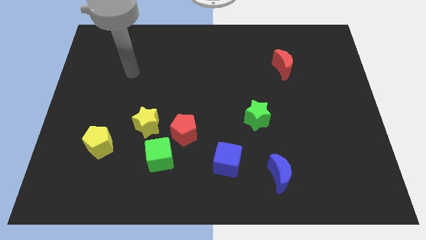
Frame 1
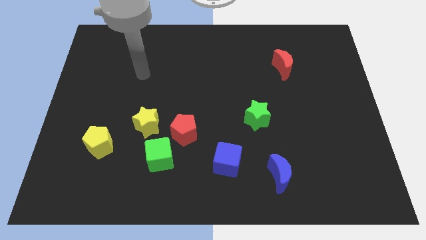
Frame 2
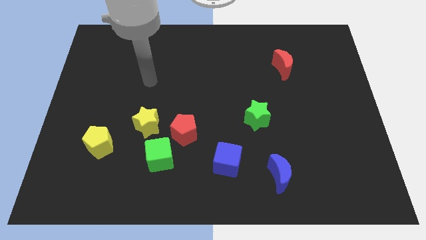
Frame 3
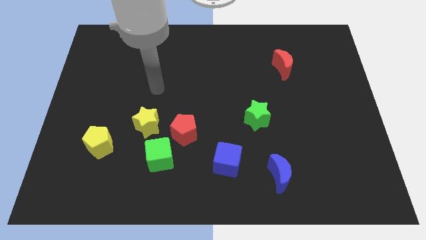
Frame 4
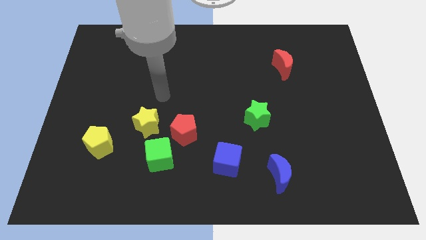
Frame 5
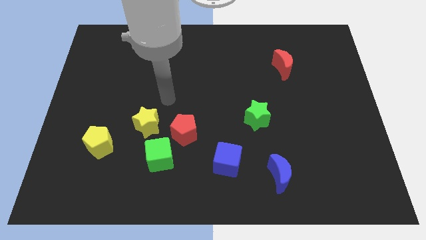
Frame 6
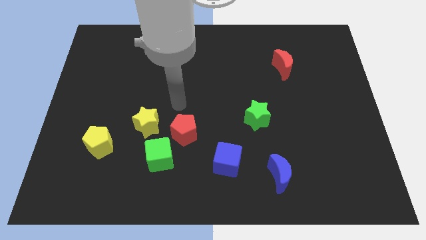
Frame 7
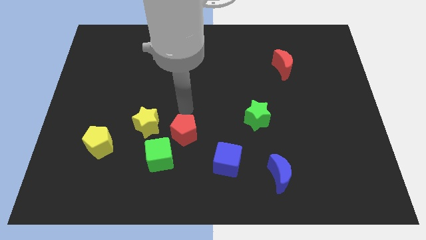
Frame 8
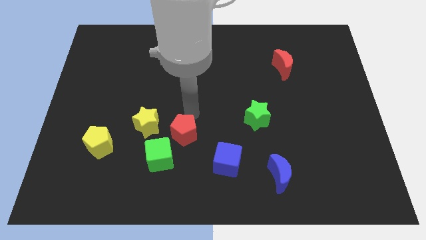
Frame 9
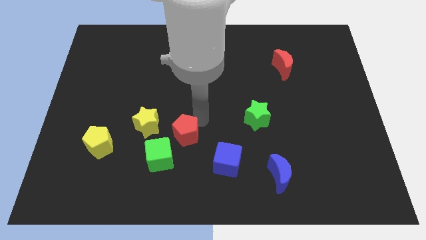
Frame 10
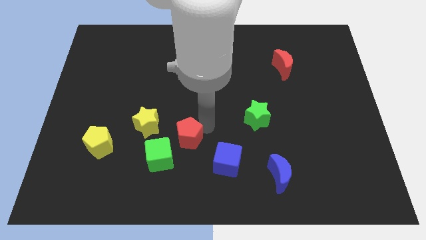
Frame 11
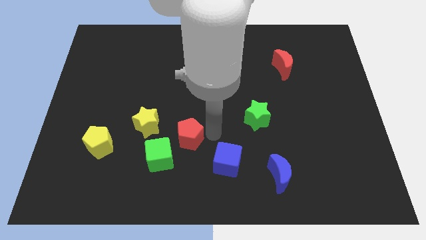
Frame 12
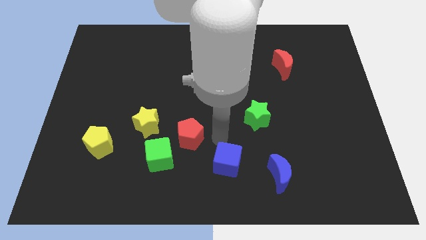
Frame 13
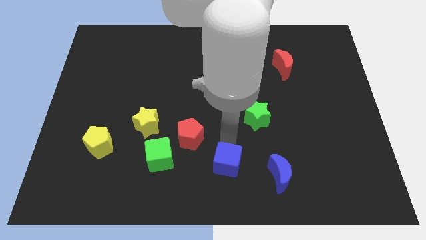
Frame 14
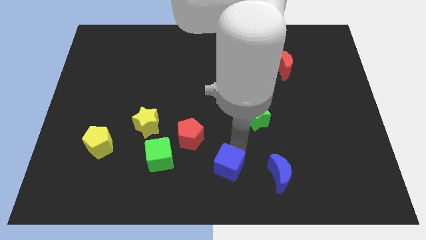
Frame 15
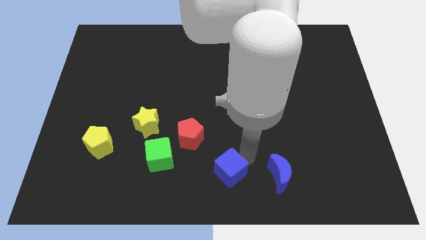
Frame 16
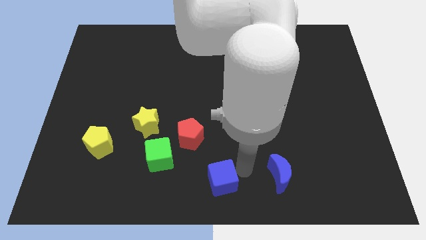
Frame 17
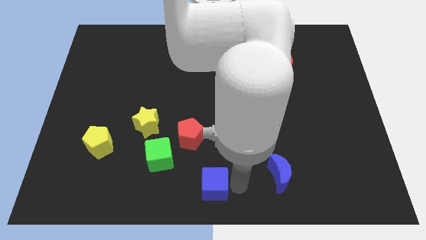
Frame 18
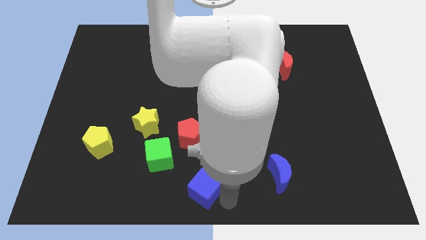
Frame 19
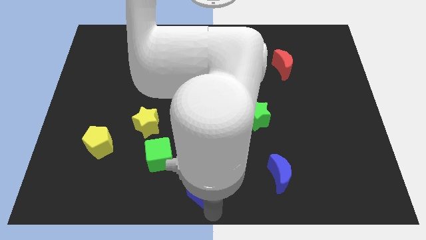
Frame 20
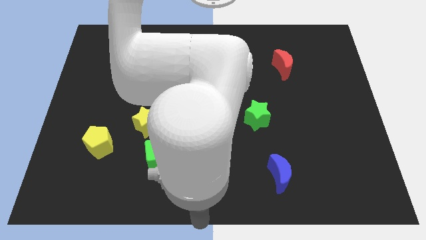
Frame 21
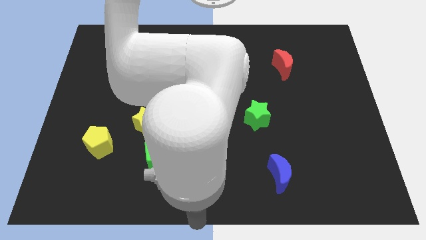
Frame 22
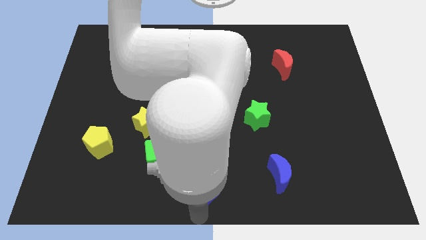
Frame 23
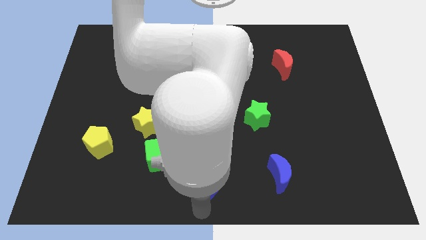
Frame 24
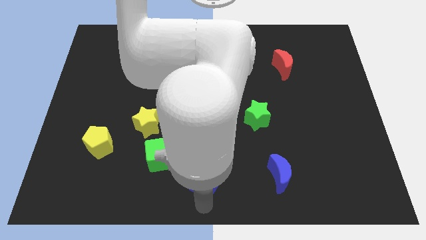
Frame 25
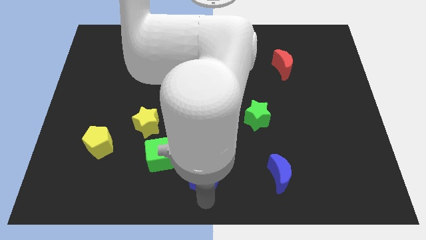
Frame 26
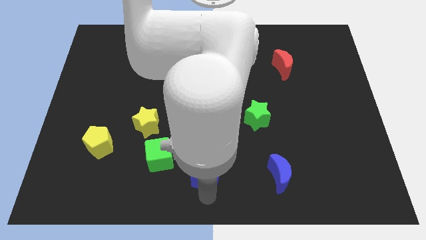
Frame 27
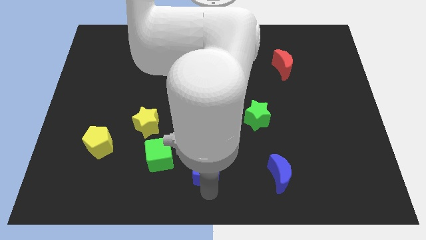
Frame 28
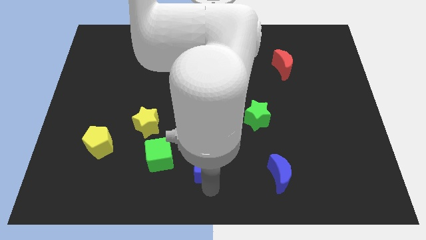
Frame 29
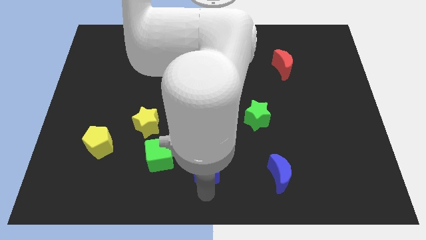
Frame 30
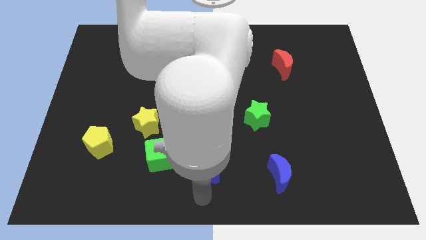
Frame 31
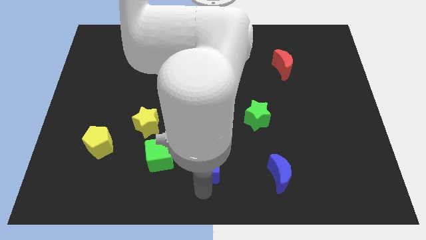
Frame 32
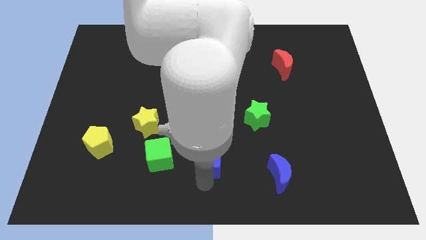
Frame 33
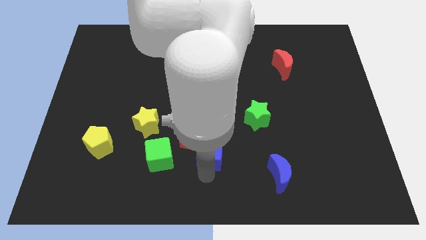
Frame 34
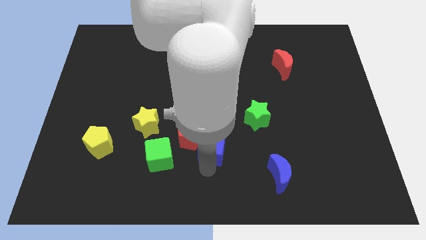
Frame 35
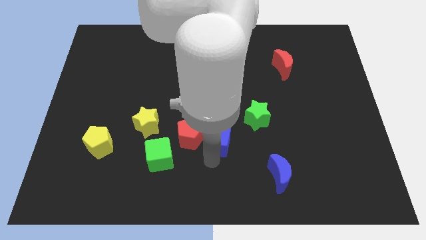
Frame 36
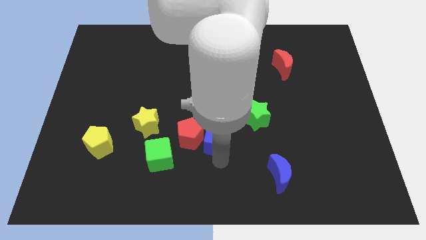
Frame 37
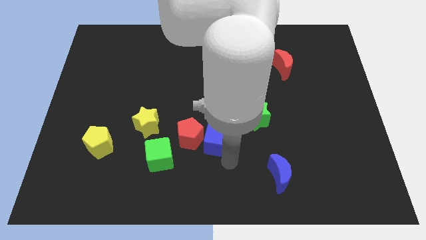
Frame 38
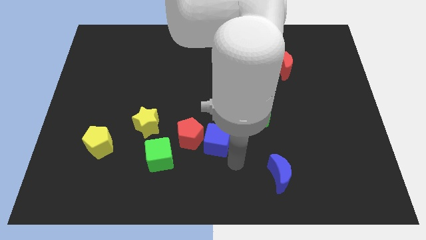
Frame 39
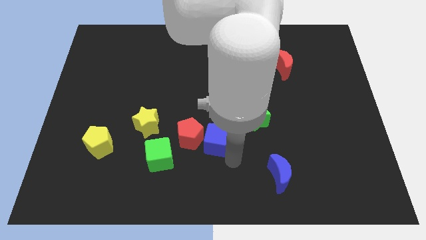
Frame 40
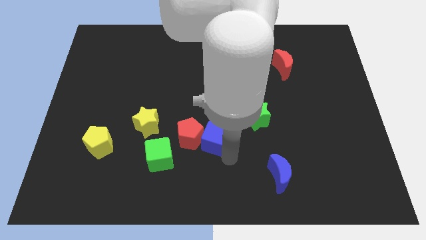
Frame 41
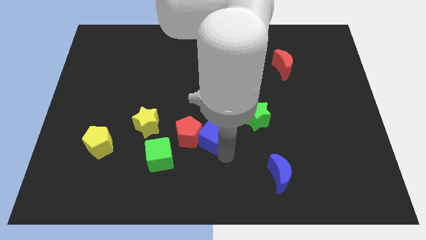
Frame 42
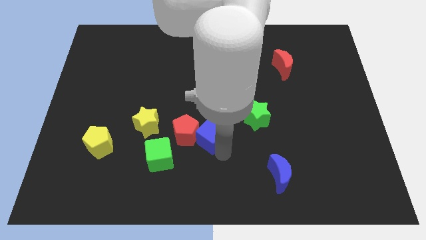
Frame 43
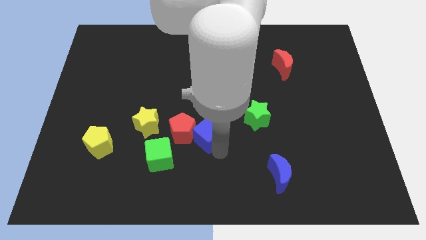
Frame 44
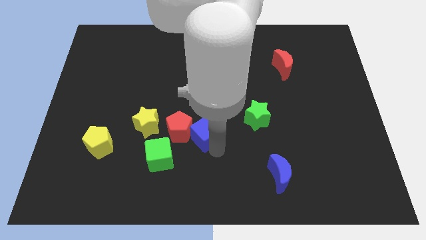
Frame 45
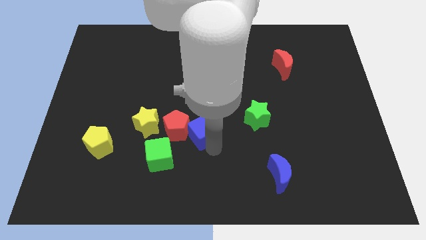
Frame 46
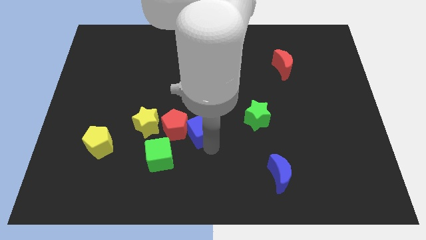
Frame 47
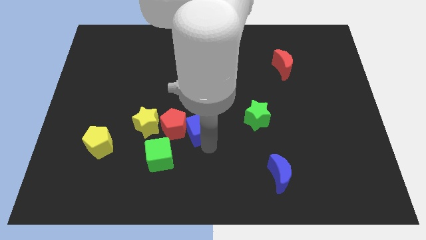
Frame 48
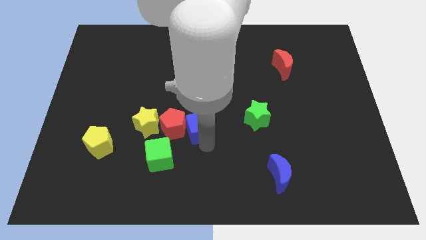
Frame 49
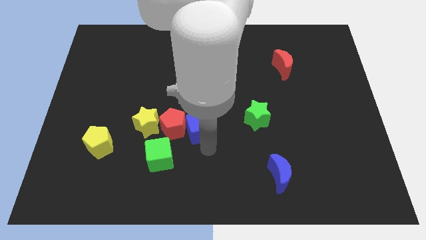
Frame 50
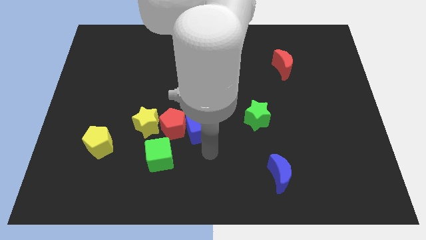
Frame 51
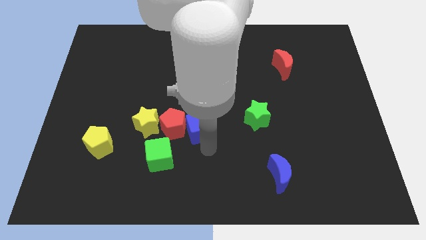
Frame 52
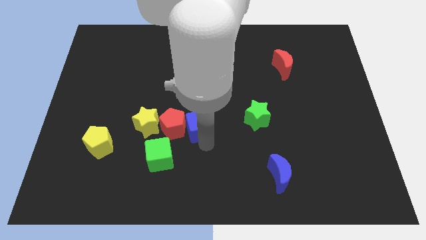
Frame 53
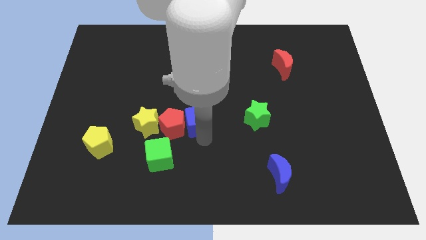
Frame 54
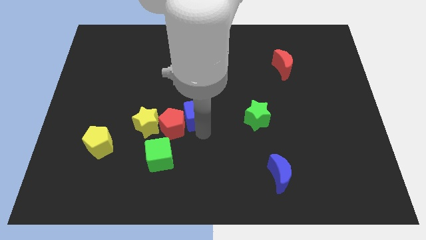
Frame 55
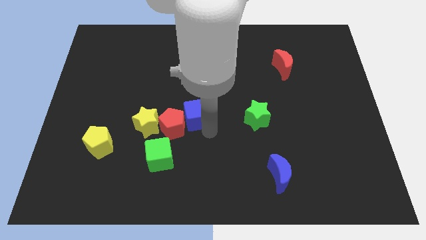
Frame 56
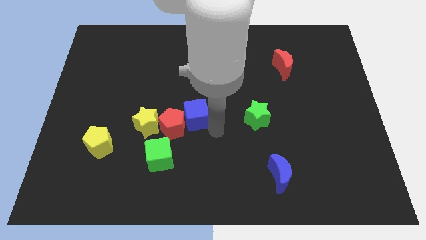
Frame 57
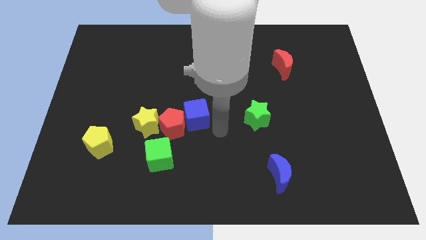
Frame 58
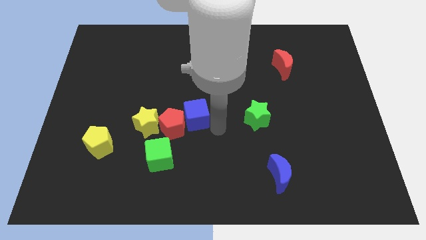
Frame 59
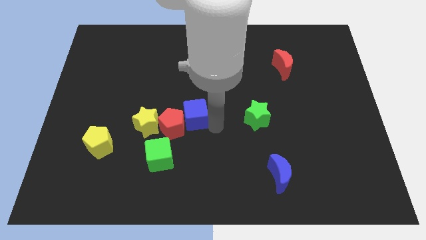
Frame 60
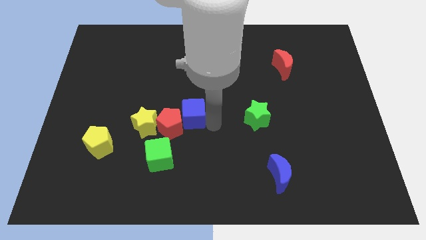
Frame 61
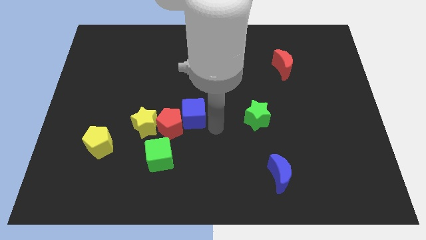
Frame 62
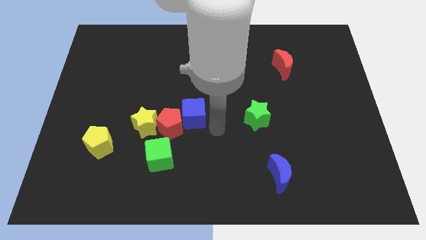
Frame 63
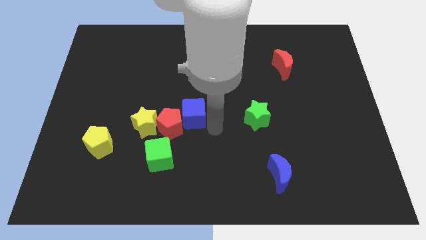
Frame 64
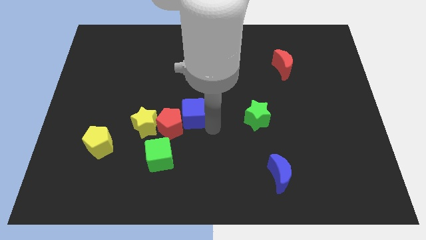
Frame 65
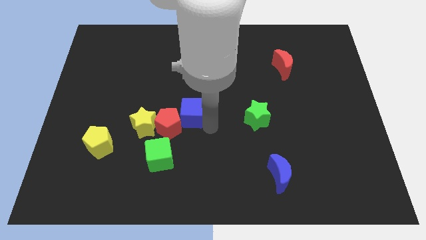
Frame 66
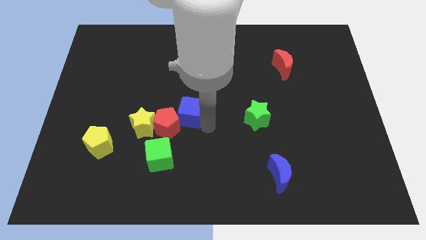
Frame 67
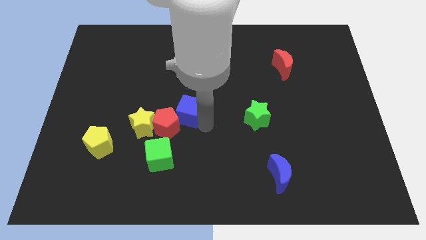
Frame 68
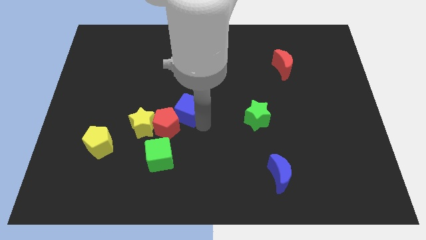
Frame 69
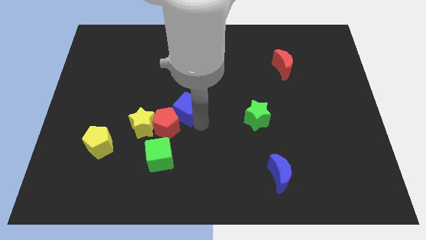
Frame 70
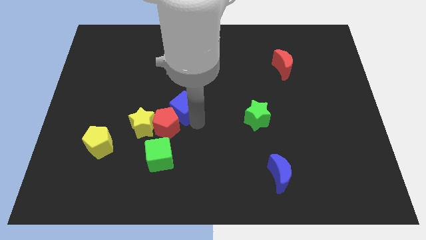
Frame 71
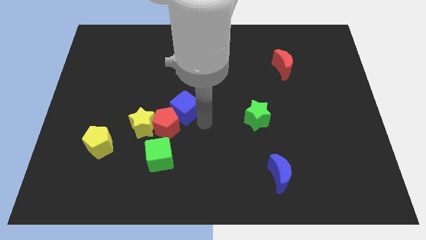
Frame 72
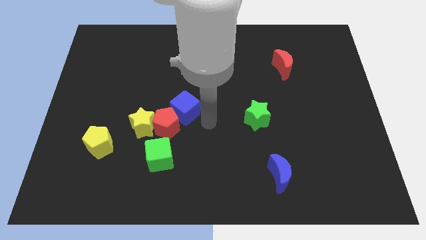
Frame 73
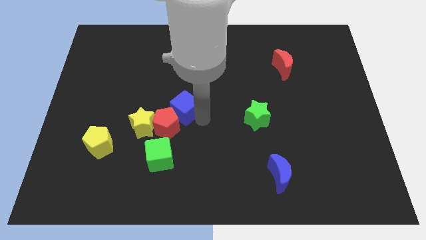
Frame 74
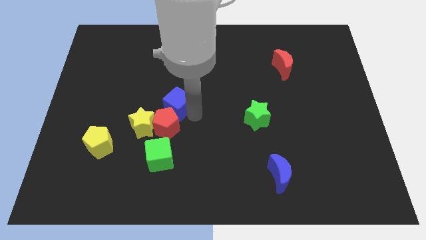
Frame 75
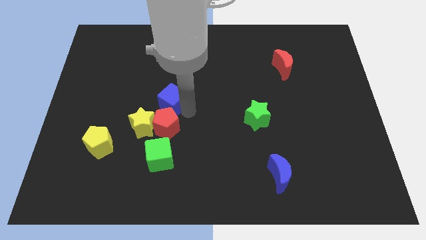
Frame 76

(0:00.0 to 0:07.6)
move the blue cube up and then left

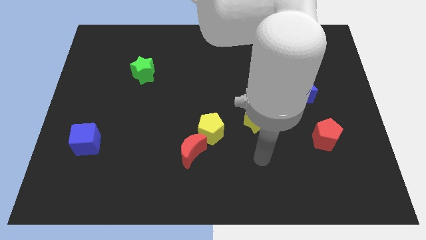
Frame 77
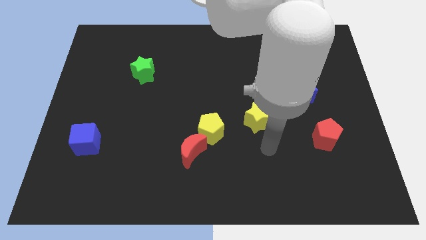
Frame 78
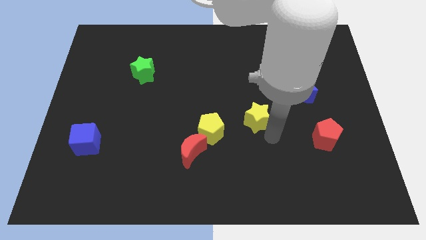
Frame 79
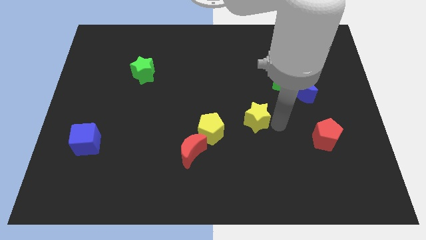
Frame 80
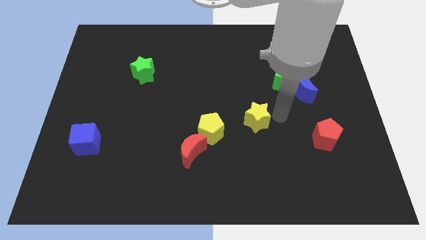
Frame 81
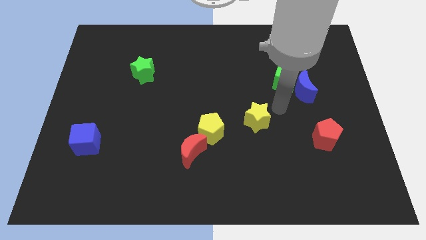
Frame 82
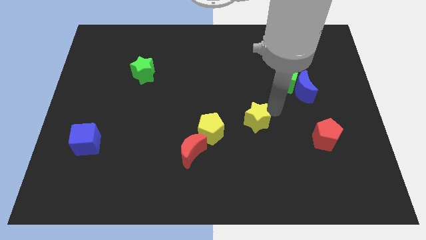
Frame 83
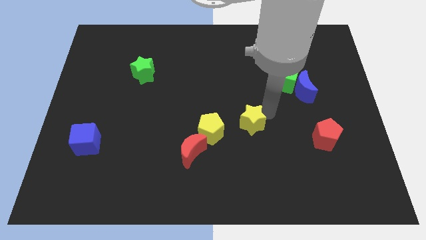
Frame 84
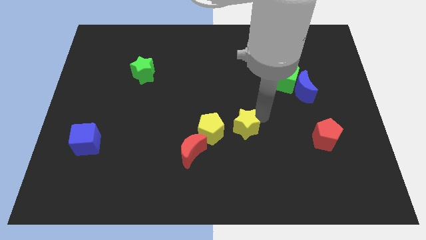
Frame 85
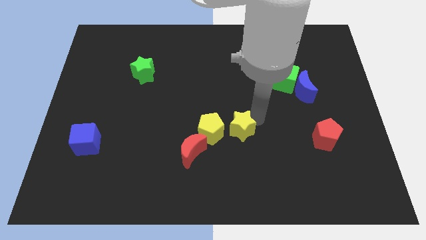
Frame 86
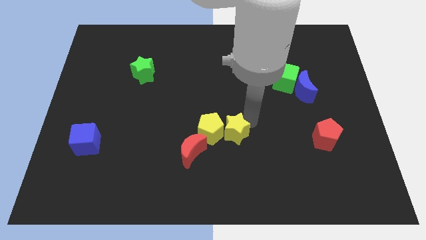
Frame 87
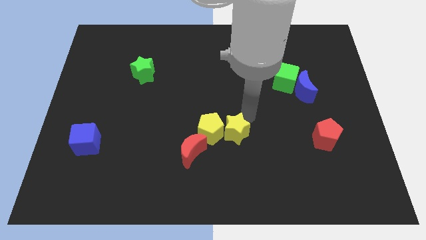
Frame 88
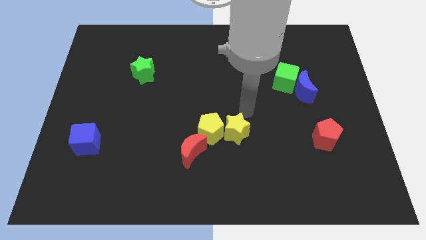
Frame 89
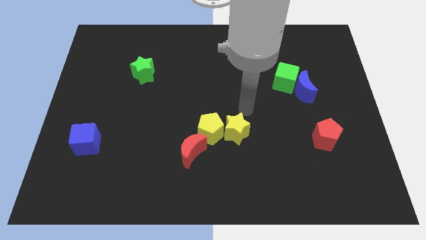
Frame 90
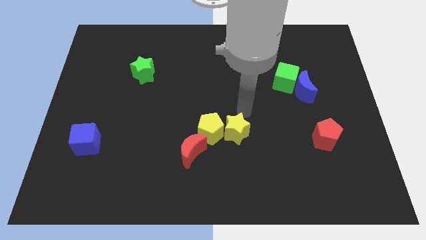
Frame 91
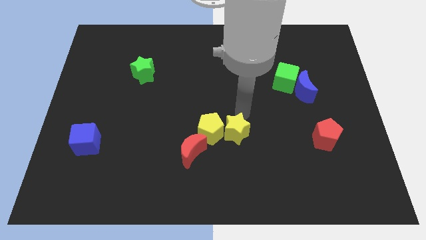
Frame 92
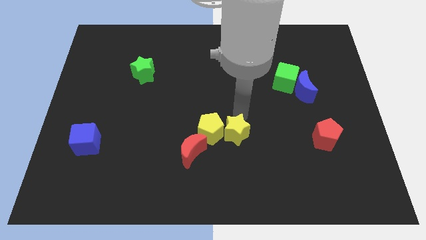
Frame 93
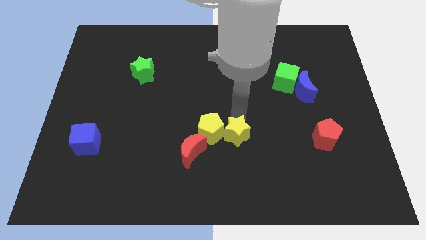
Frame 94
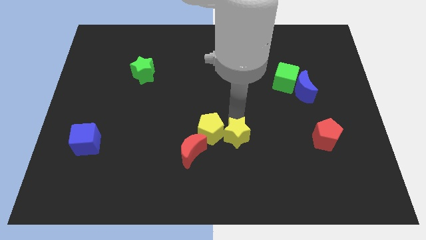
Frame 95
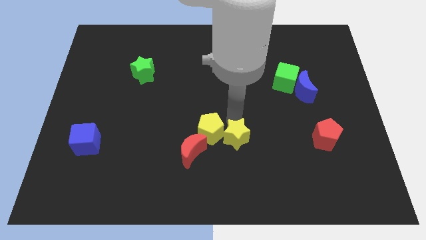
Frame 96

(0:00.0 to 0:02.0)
slightly push the yellow star downwards and to the left
